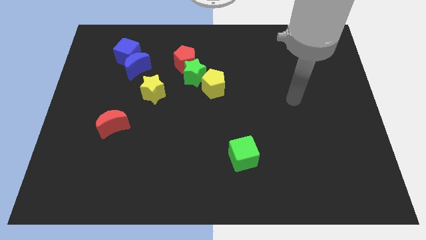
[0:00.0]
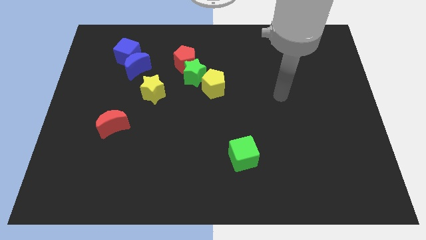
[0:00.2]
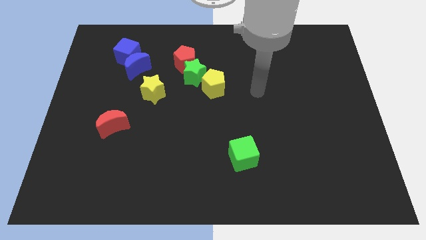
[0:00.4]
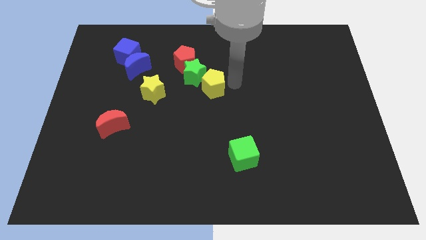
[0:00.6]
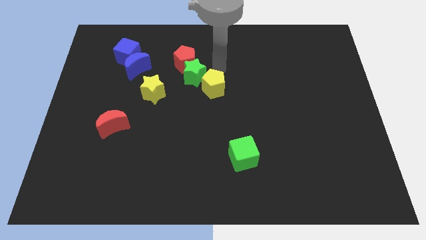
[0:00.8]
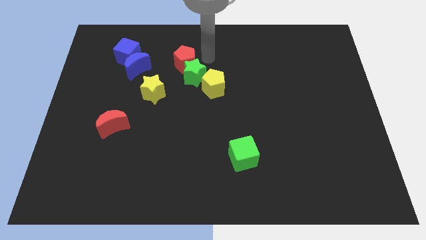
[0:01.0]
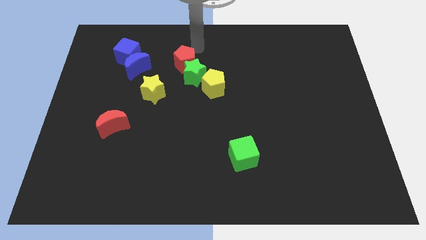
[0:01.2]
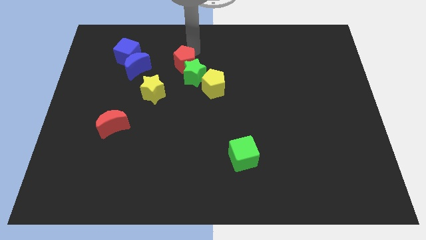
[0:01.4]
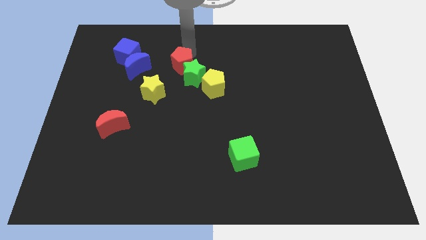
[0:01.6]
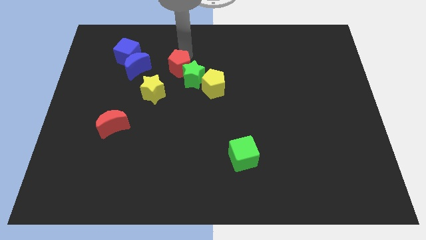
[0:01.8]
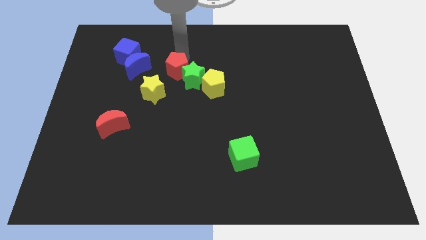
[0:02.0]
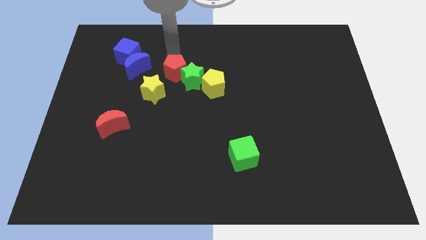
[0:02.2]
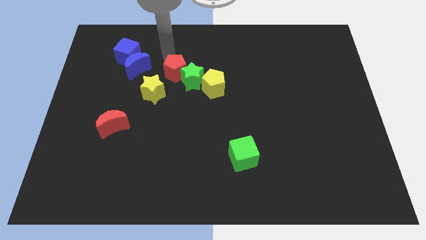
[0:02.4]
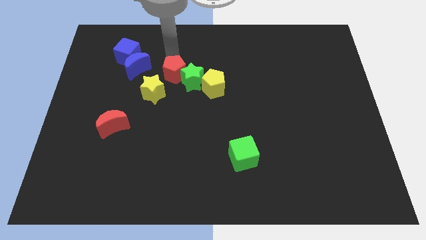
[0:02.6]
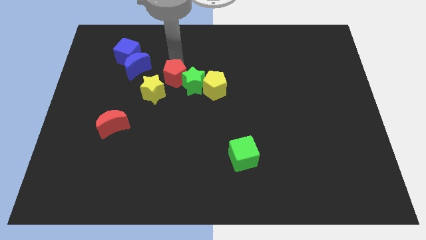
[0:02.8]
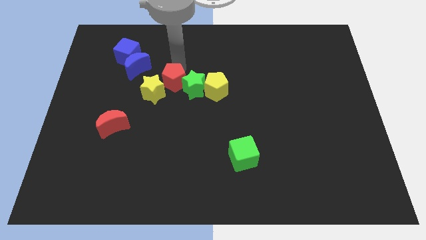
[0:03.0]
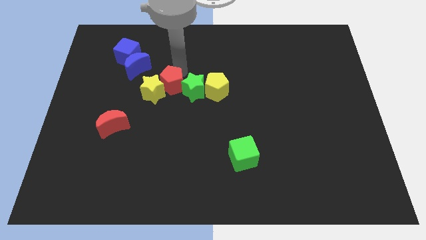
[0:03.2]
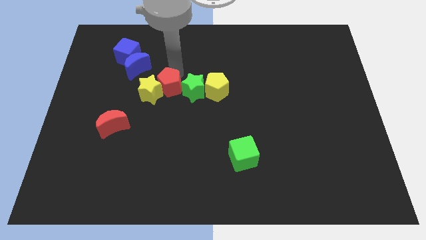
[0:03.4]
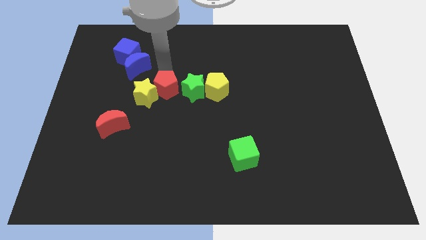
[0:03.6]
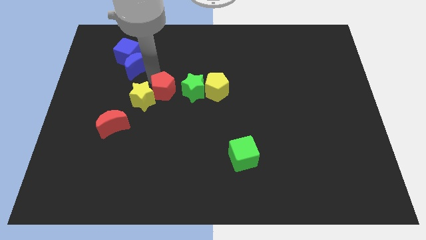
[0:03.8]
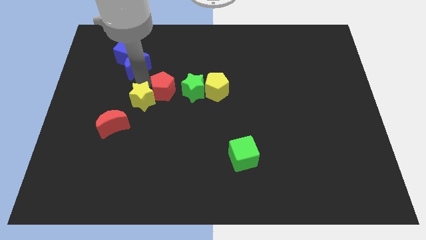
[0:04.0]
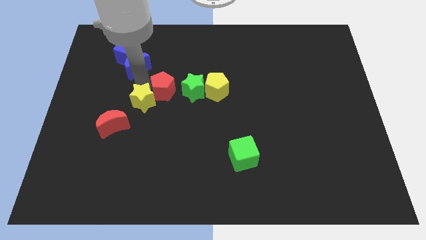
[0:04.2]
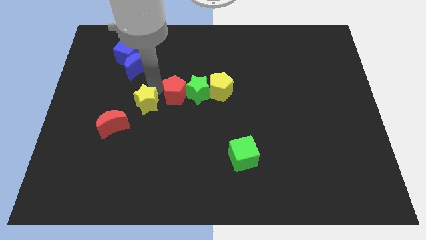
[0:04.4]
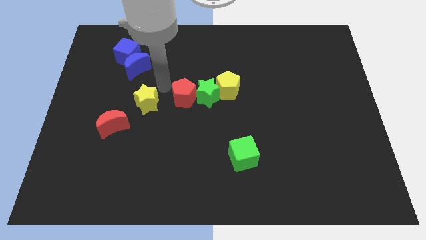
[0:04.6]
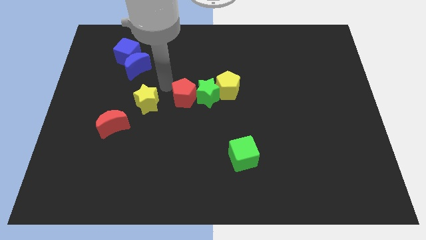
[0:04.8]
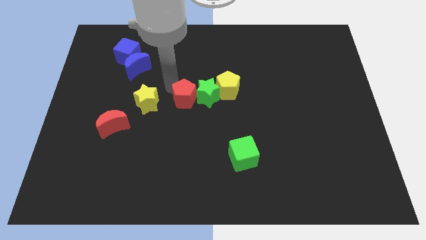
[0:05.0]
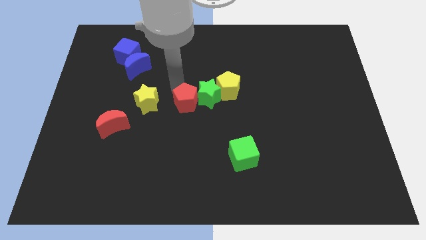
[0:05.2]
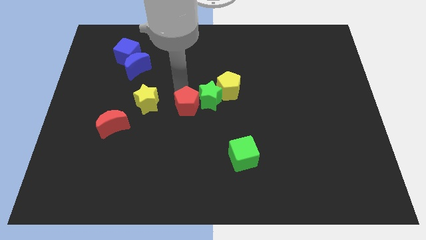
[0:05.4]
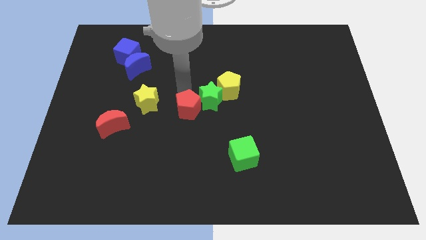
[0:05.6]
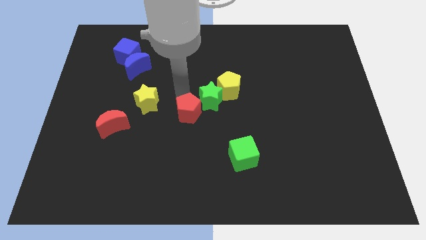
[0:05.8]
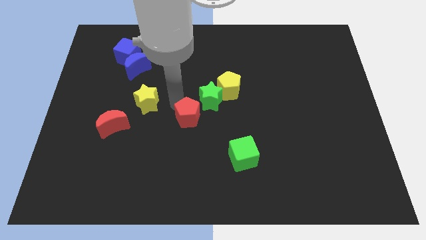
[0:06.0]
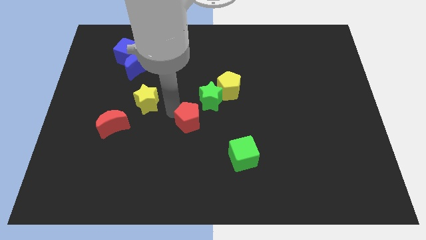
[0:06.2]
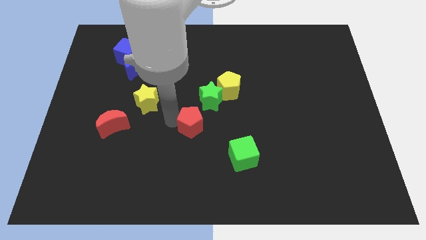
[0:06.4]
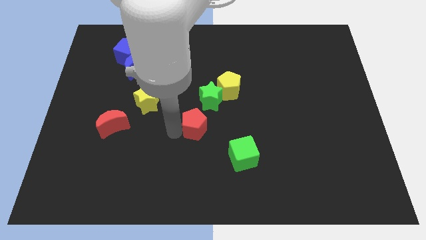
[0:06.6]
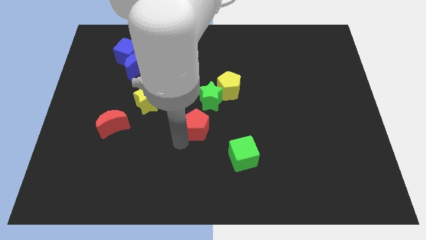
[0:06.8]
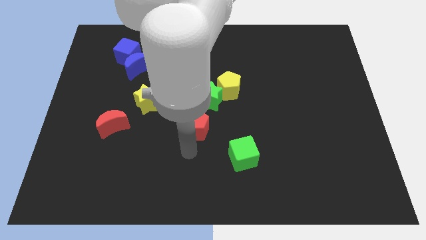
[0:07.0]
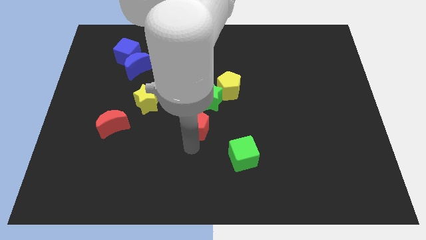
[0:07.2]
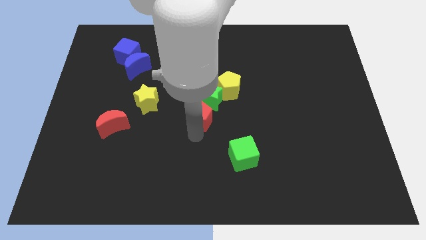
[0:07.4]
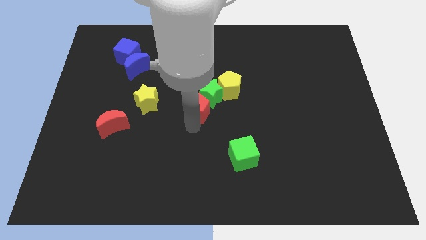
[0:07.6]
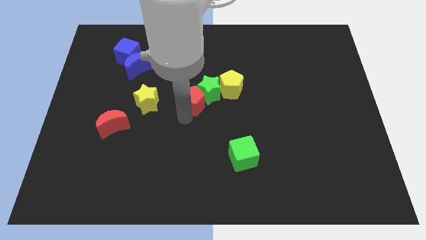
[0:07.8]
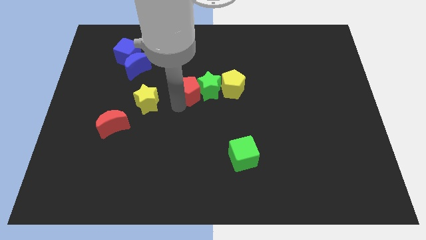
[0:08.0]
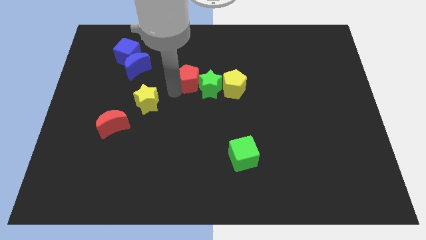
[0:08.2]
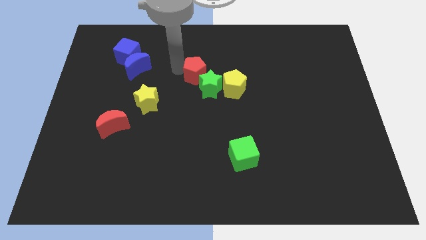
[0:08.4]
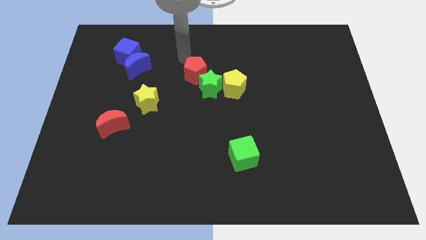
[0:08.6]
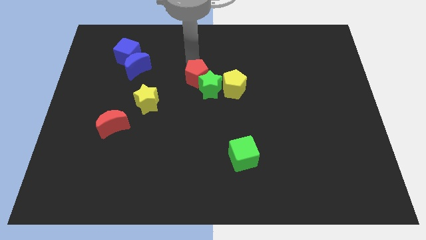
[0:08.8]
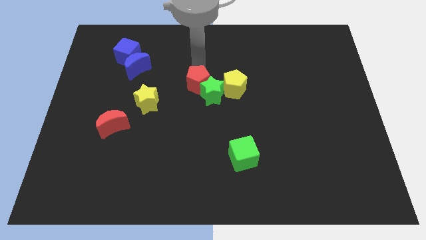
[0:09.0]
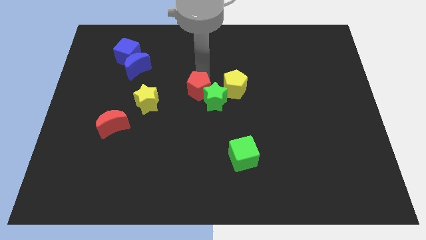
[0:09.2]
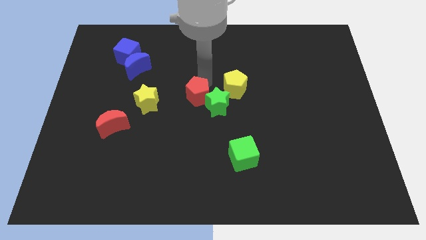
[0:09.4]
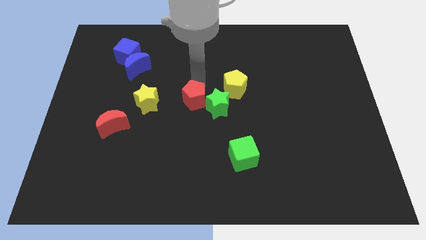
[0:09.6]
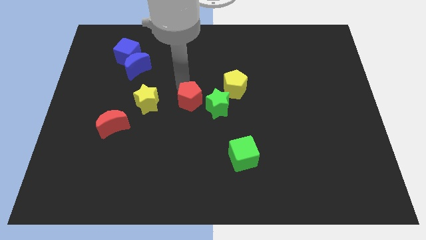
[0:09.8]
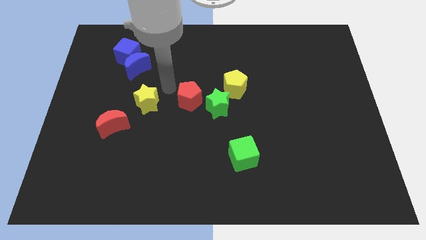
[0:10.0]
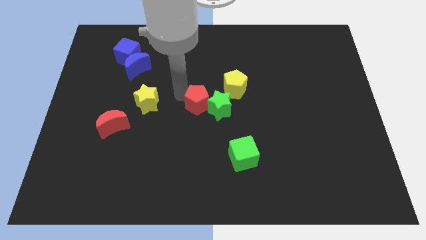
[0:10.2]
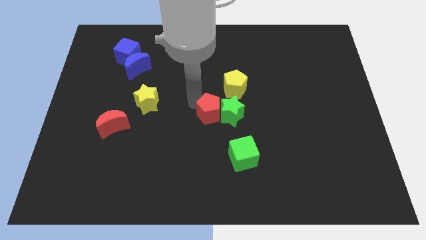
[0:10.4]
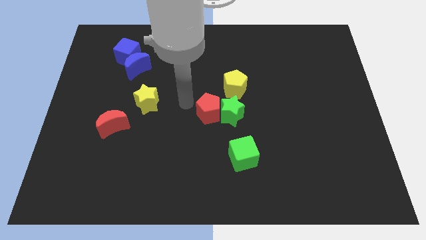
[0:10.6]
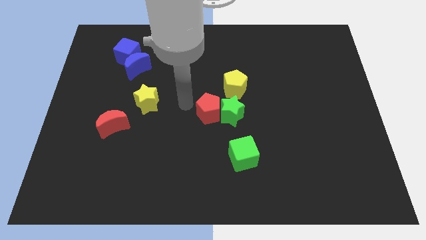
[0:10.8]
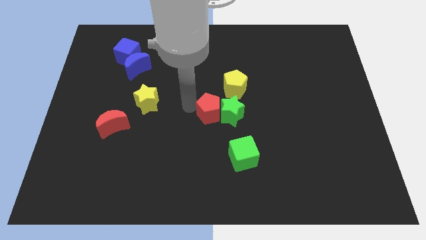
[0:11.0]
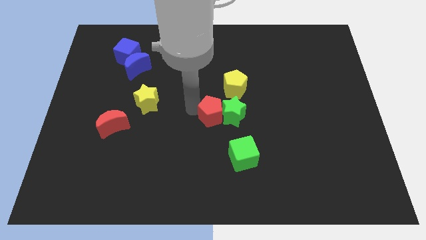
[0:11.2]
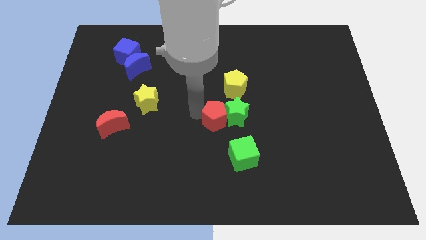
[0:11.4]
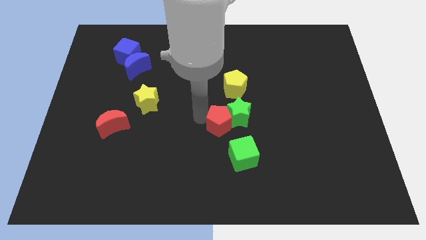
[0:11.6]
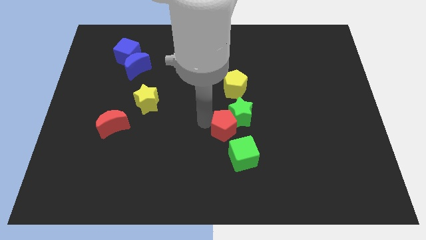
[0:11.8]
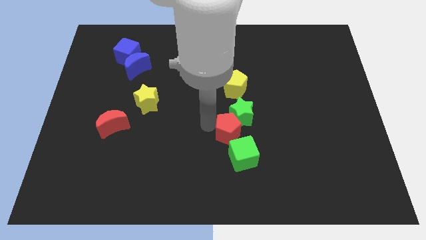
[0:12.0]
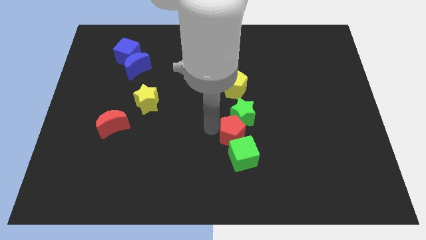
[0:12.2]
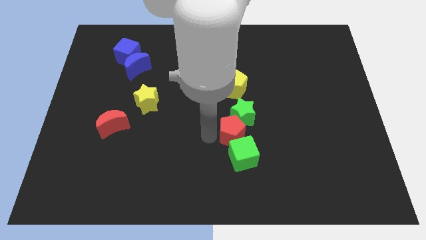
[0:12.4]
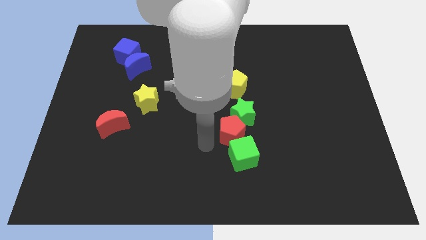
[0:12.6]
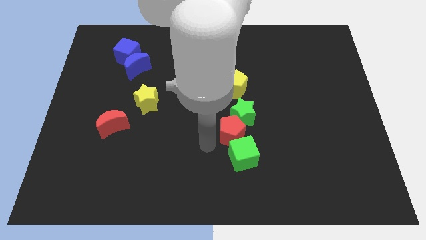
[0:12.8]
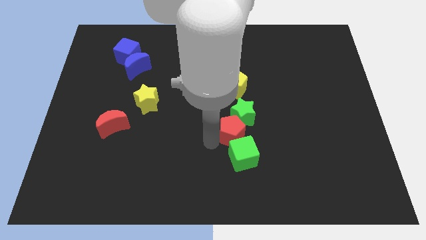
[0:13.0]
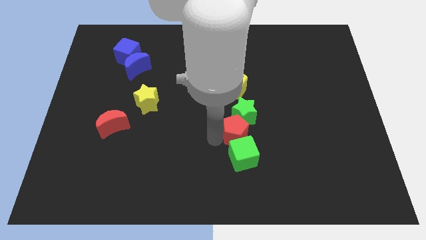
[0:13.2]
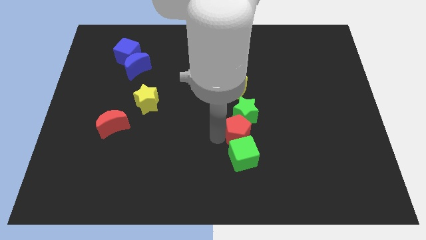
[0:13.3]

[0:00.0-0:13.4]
put the red pentagon diagonally up and to the right of the green cube
